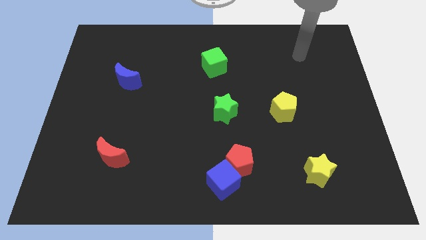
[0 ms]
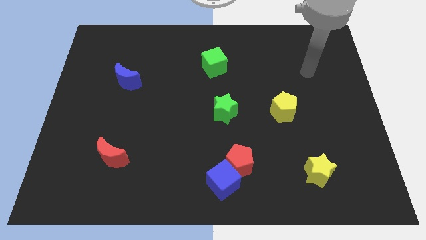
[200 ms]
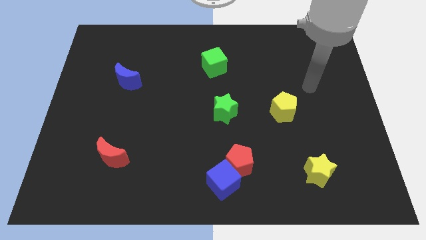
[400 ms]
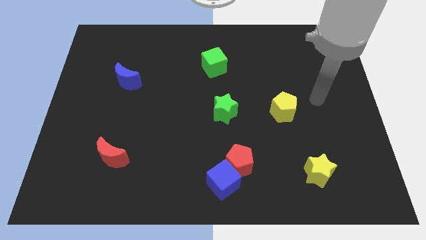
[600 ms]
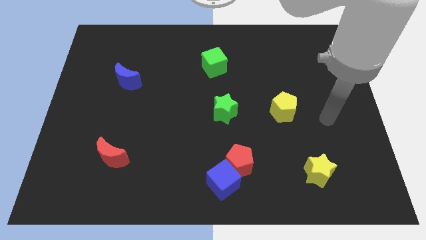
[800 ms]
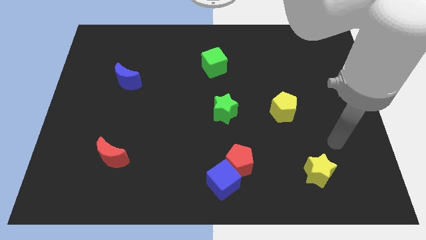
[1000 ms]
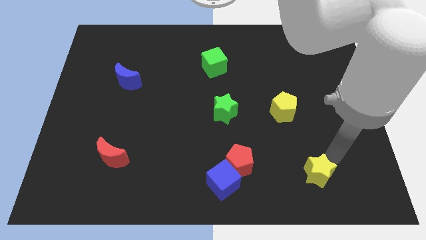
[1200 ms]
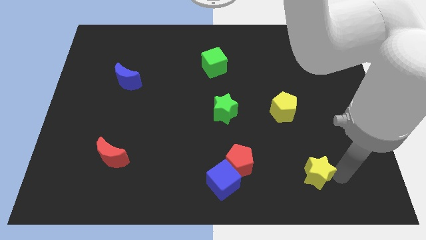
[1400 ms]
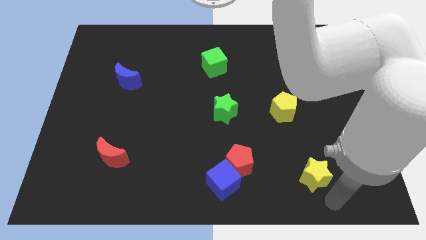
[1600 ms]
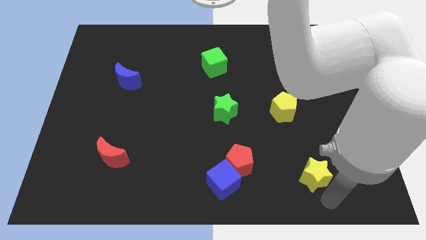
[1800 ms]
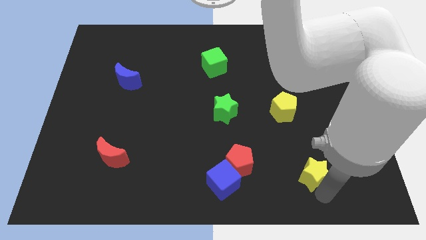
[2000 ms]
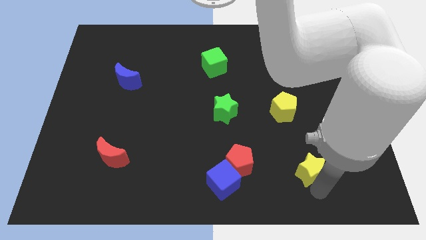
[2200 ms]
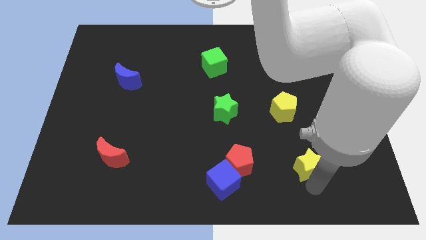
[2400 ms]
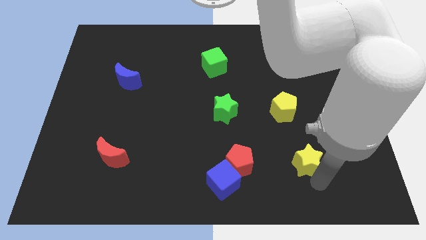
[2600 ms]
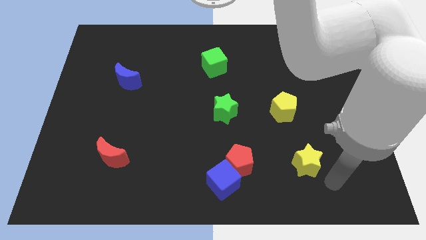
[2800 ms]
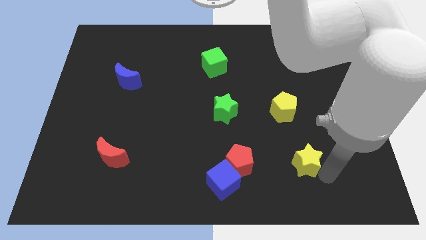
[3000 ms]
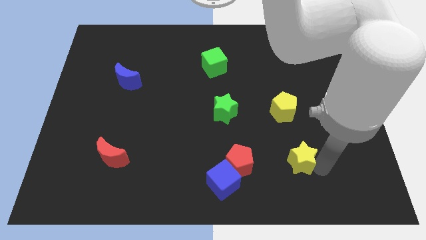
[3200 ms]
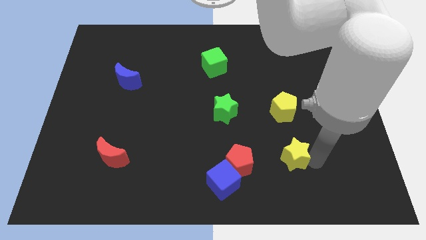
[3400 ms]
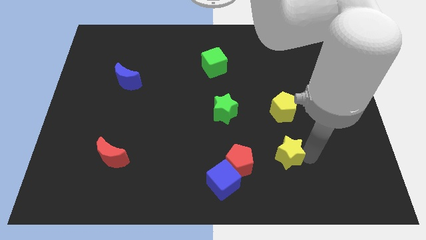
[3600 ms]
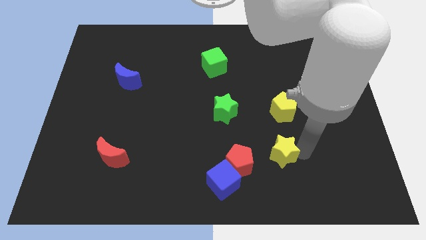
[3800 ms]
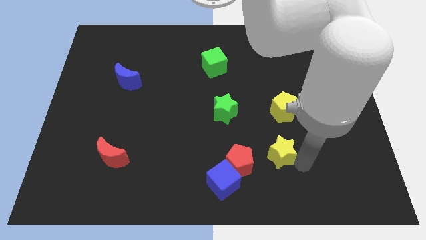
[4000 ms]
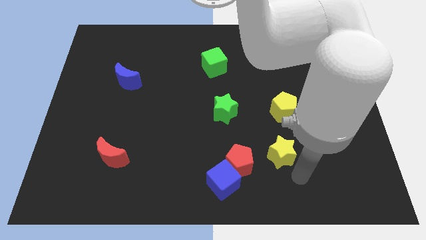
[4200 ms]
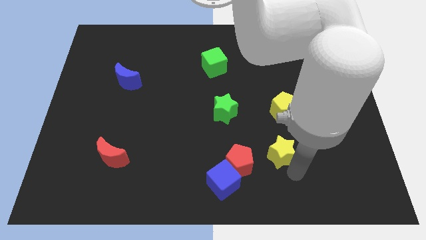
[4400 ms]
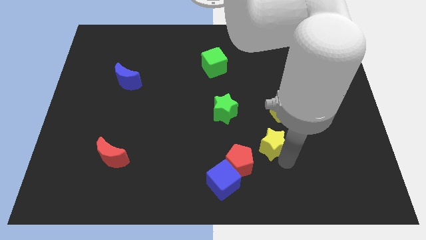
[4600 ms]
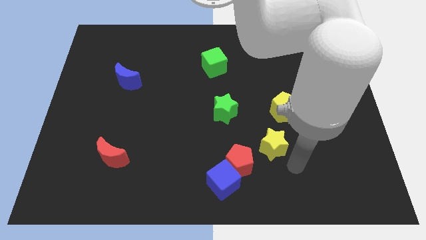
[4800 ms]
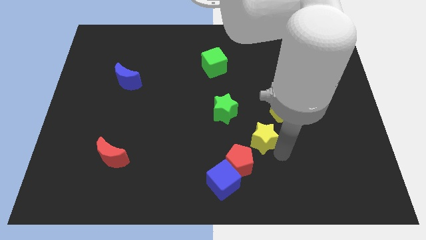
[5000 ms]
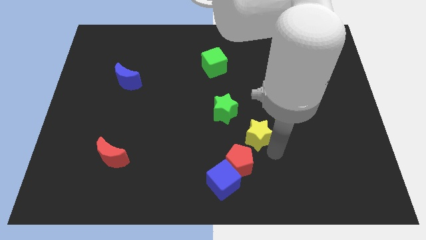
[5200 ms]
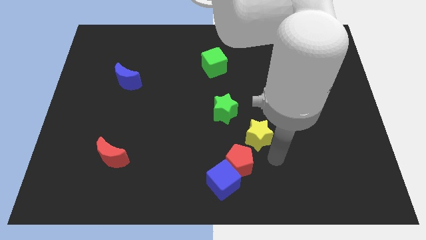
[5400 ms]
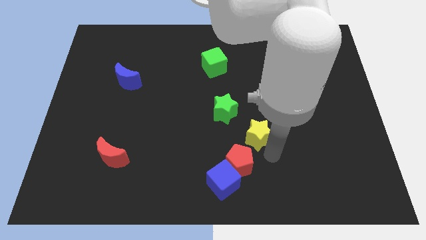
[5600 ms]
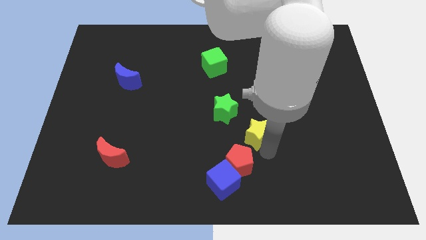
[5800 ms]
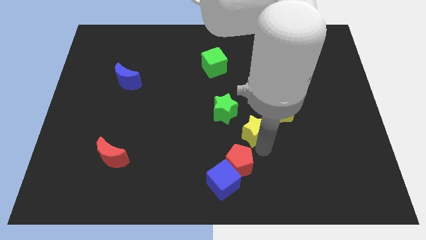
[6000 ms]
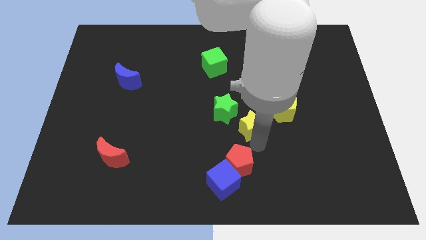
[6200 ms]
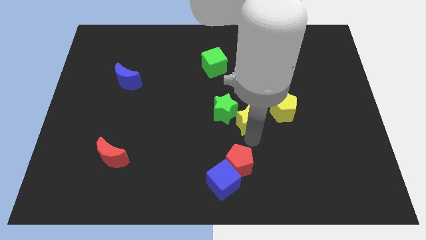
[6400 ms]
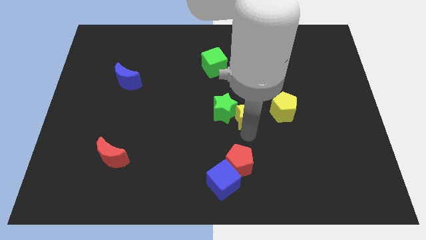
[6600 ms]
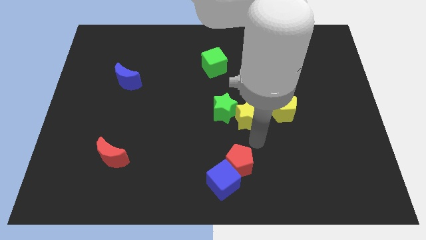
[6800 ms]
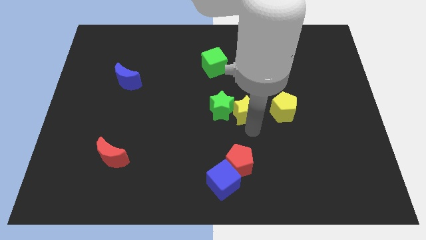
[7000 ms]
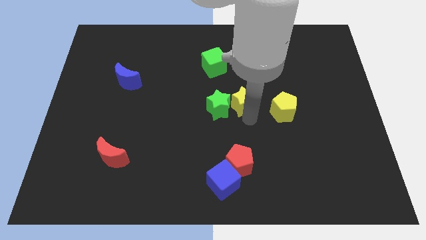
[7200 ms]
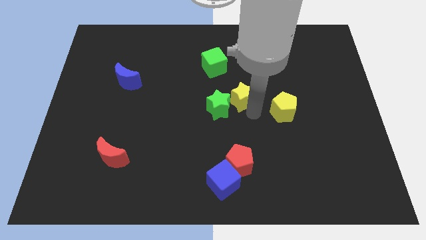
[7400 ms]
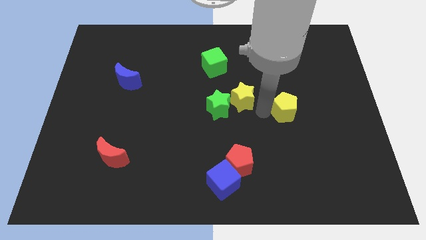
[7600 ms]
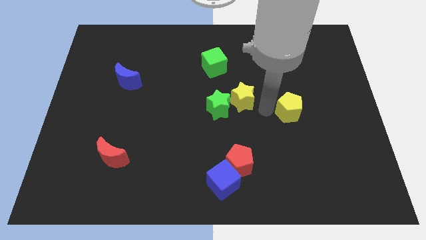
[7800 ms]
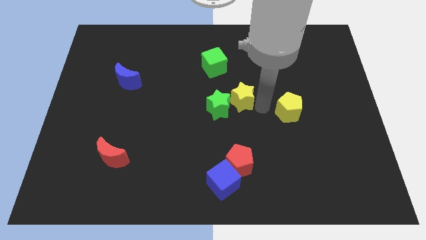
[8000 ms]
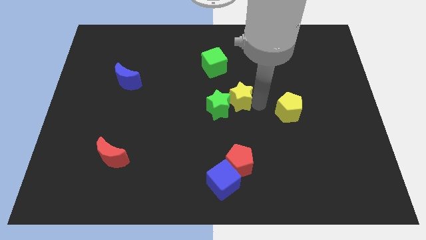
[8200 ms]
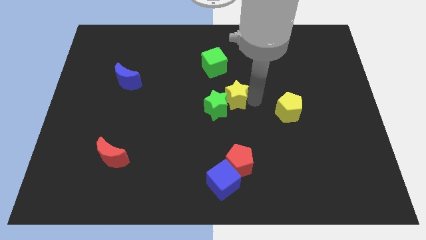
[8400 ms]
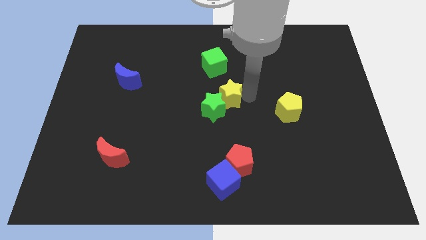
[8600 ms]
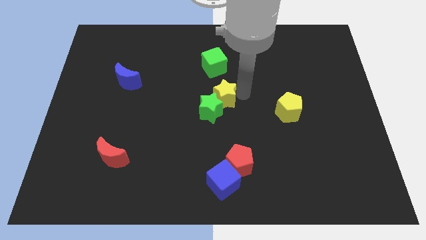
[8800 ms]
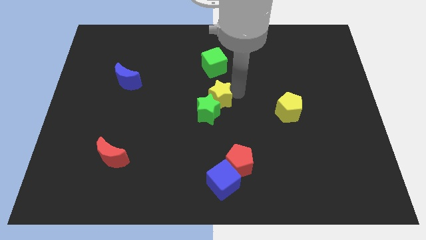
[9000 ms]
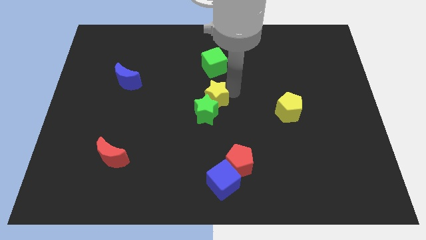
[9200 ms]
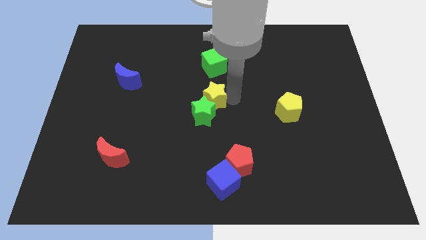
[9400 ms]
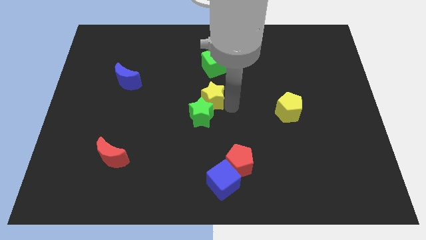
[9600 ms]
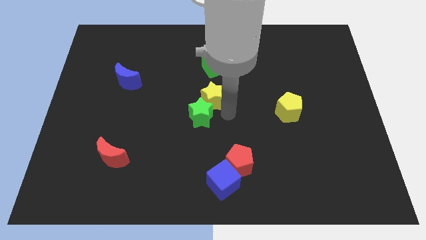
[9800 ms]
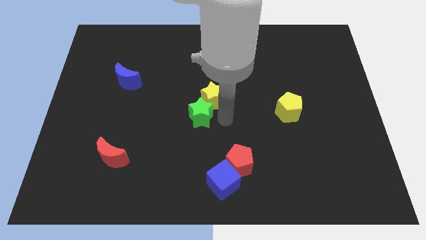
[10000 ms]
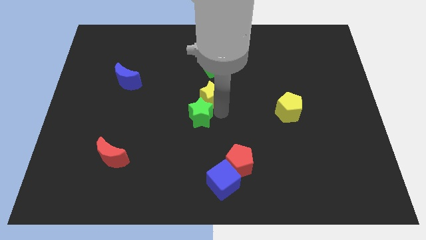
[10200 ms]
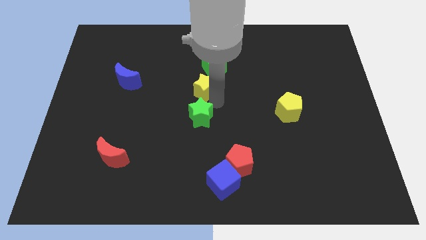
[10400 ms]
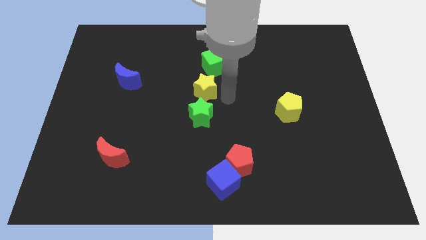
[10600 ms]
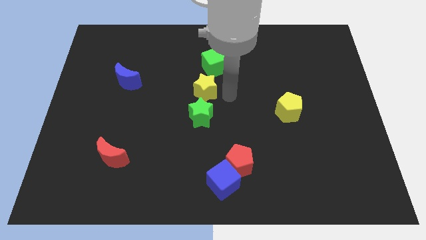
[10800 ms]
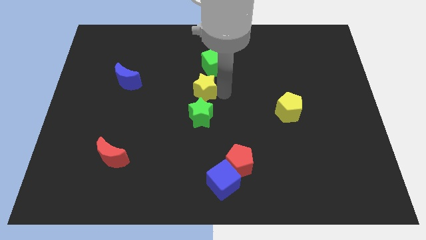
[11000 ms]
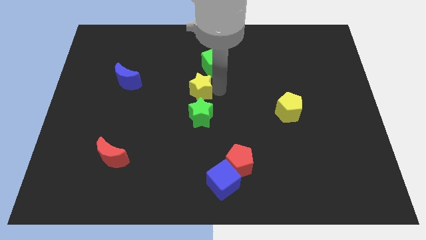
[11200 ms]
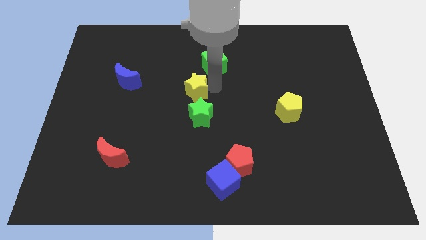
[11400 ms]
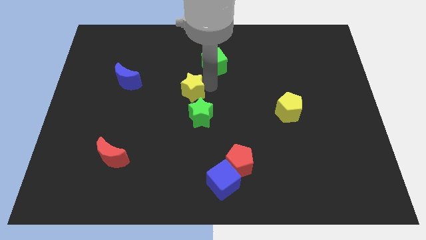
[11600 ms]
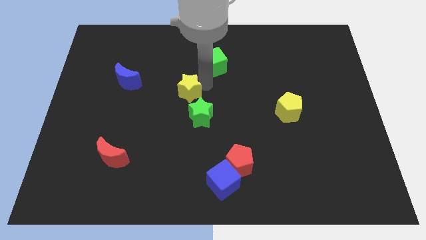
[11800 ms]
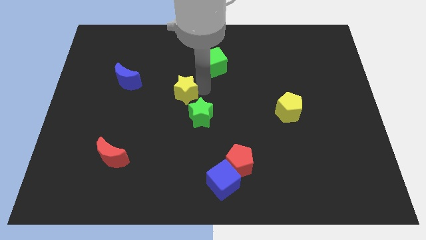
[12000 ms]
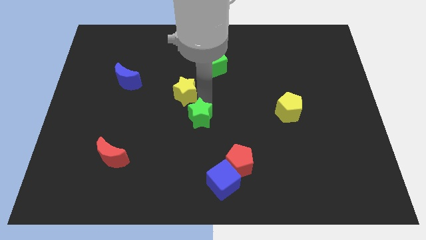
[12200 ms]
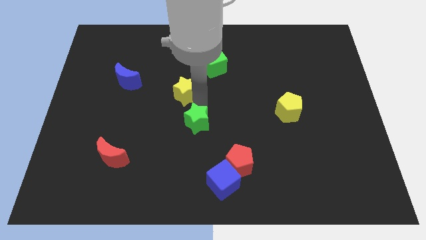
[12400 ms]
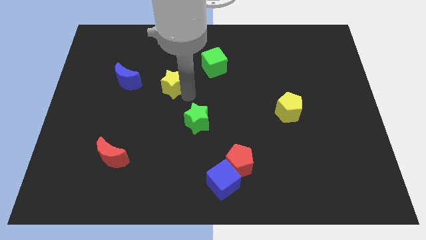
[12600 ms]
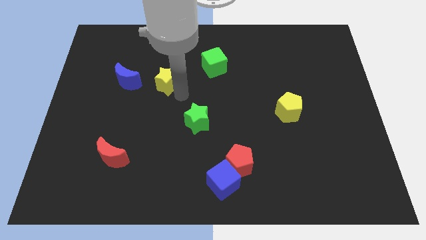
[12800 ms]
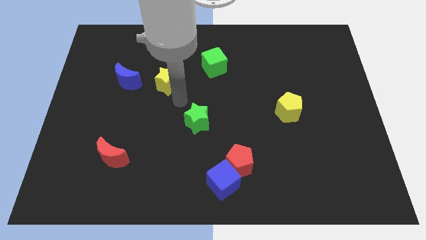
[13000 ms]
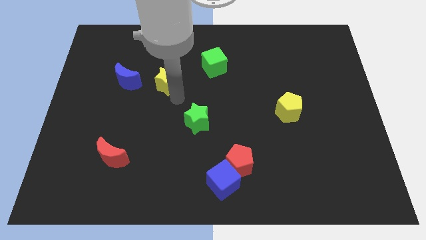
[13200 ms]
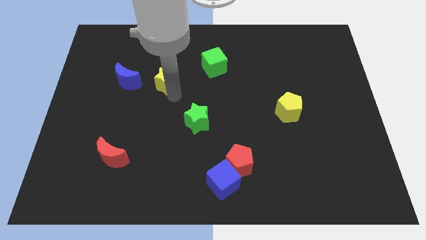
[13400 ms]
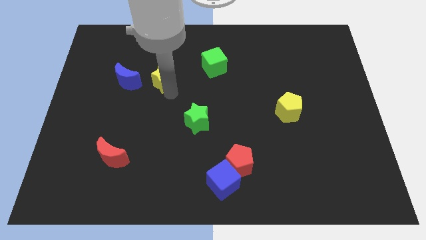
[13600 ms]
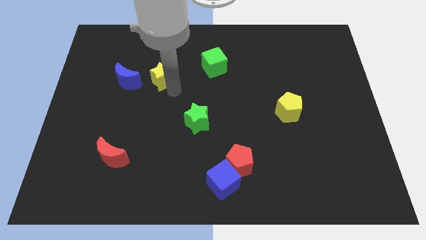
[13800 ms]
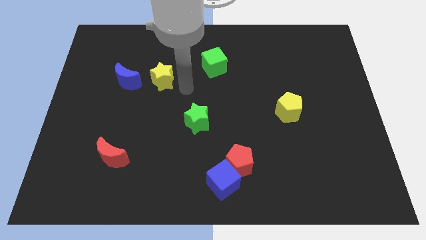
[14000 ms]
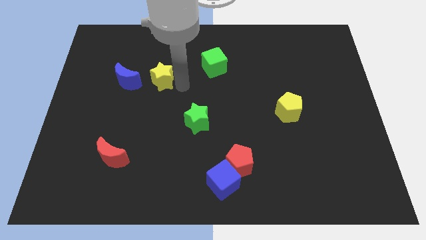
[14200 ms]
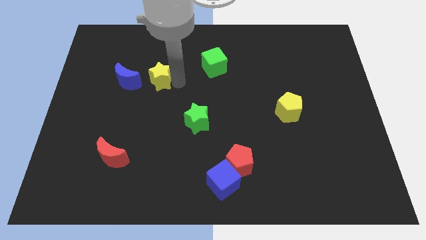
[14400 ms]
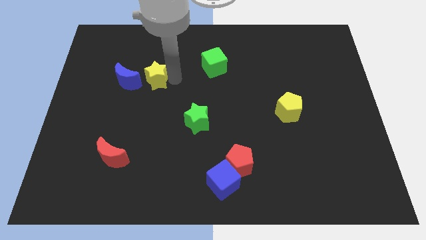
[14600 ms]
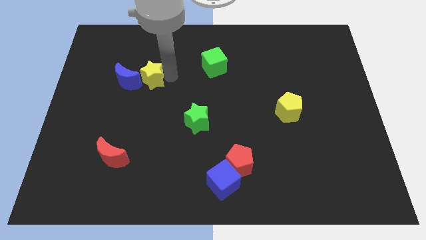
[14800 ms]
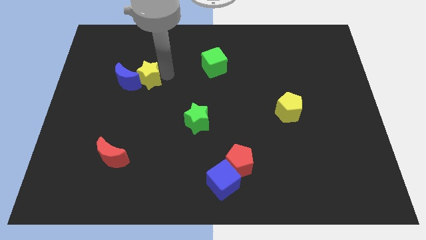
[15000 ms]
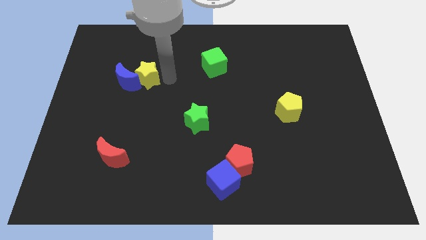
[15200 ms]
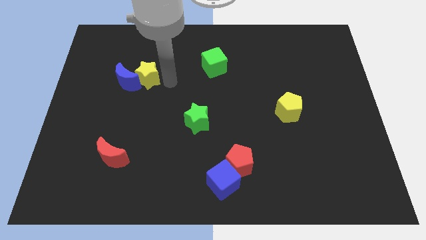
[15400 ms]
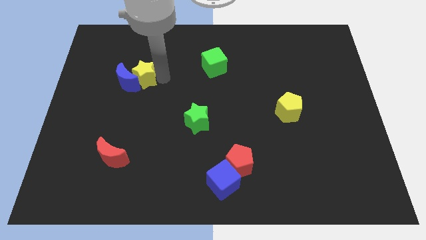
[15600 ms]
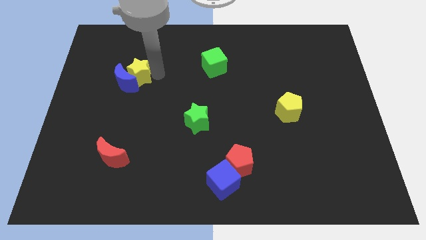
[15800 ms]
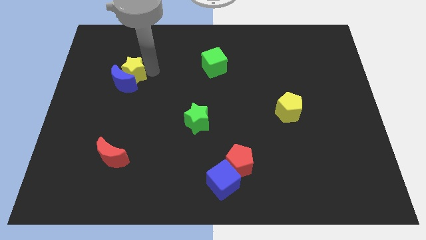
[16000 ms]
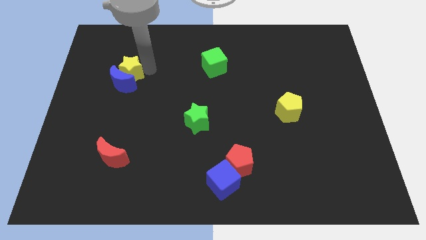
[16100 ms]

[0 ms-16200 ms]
put the yellow star to the top left of the blue moon
